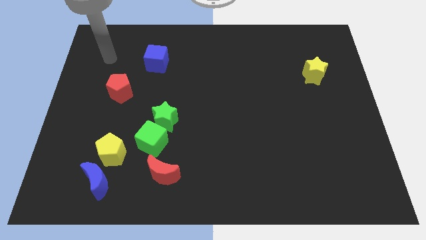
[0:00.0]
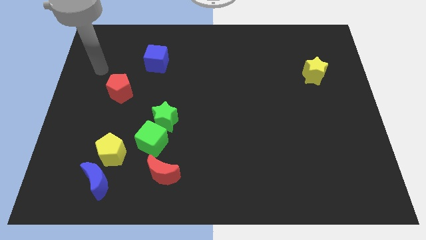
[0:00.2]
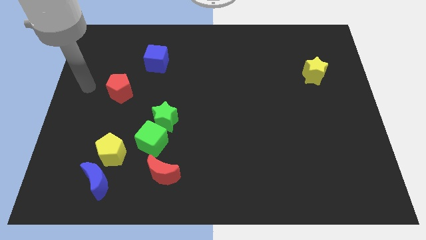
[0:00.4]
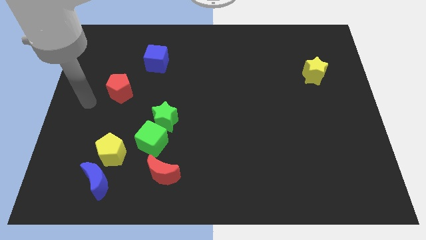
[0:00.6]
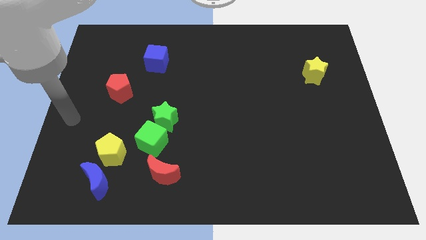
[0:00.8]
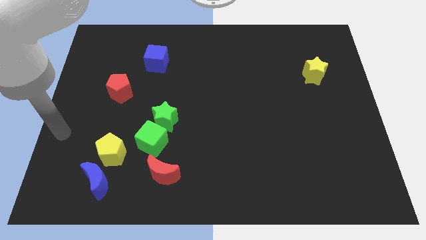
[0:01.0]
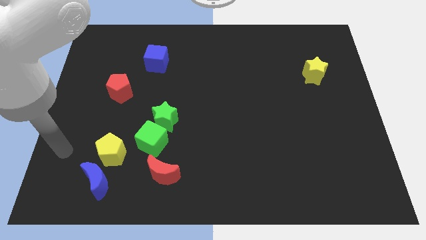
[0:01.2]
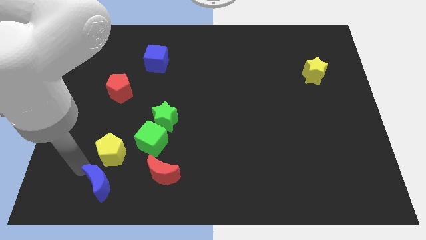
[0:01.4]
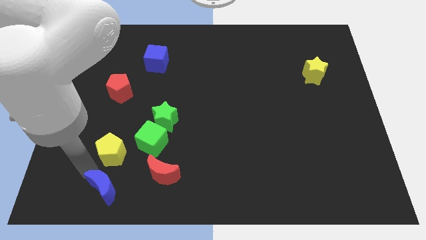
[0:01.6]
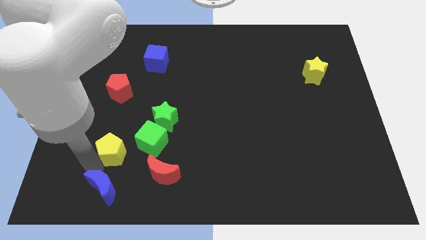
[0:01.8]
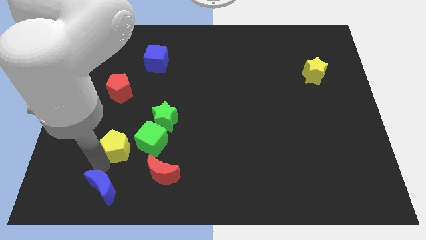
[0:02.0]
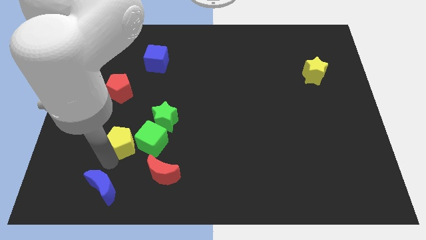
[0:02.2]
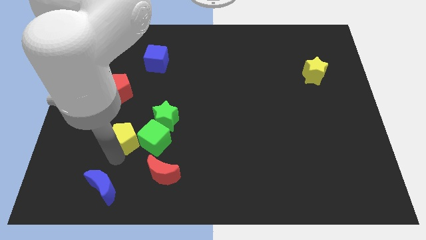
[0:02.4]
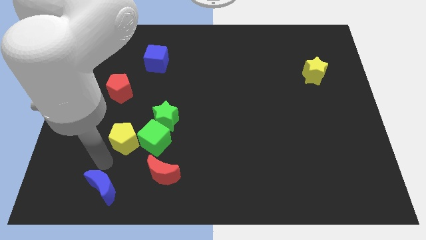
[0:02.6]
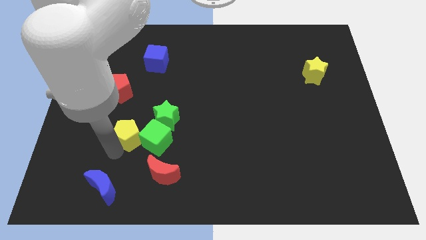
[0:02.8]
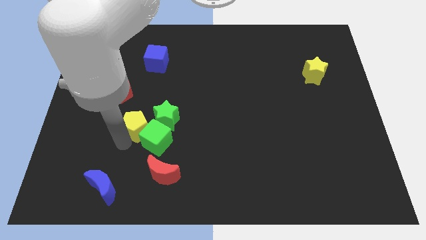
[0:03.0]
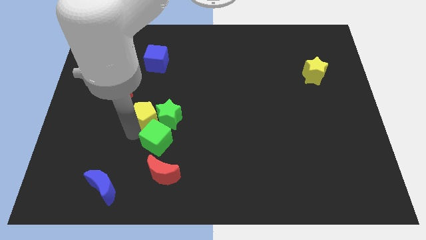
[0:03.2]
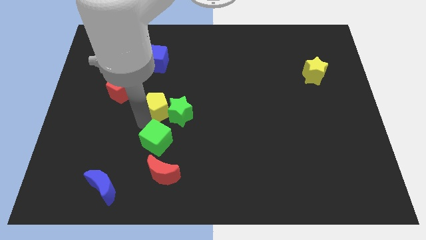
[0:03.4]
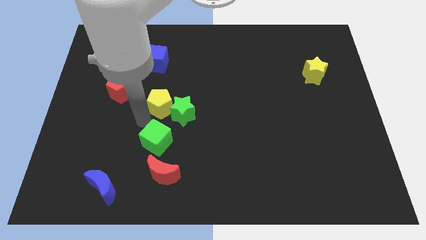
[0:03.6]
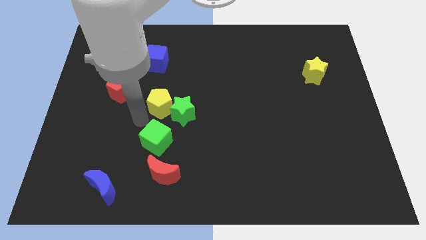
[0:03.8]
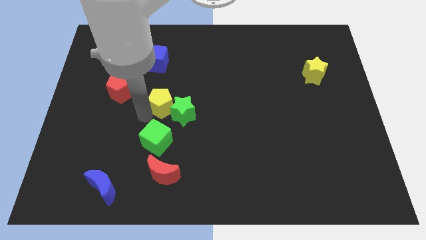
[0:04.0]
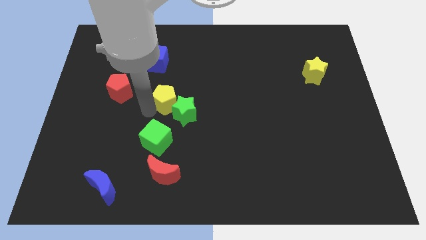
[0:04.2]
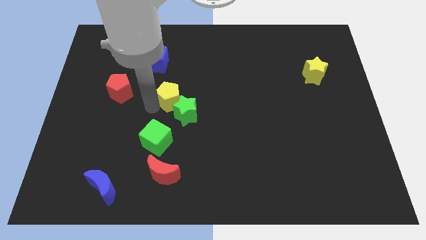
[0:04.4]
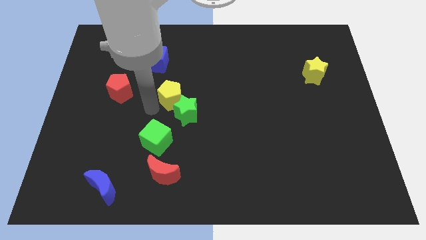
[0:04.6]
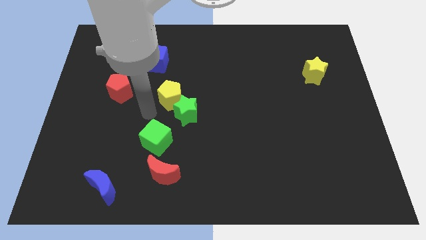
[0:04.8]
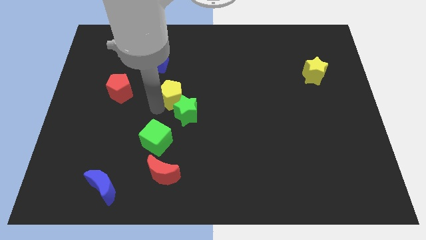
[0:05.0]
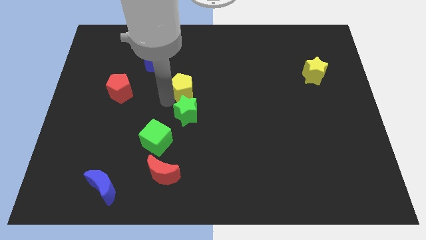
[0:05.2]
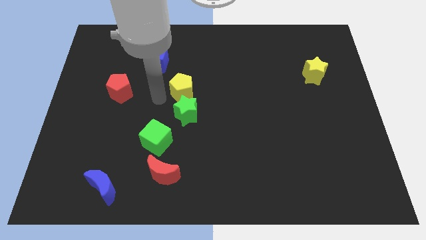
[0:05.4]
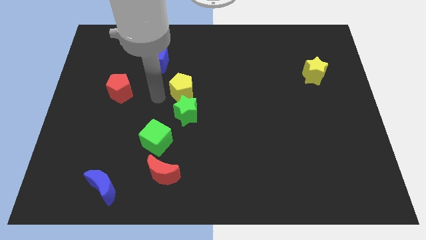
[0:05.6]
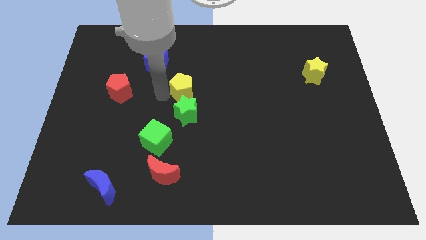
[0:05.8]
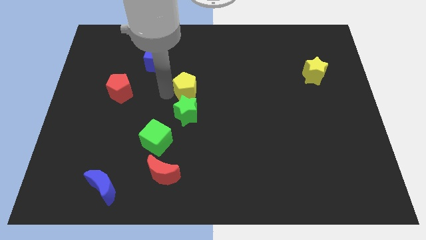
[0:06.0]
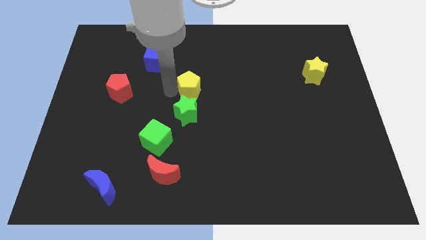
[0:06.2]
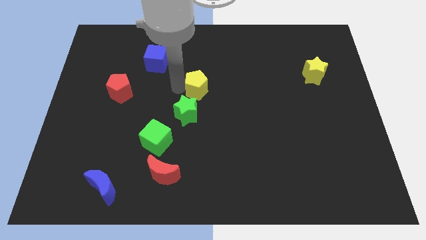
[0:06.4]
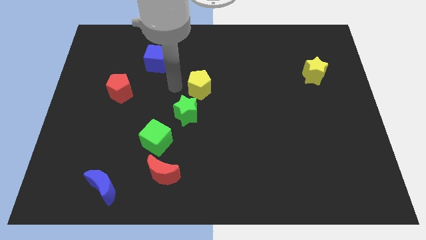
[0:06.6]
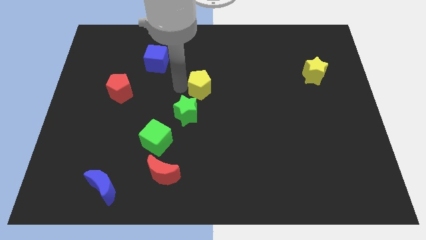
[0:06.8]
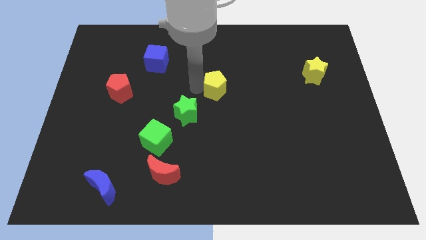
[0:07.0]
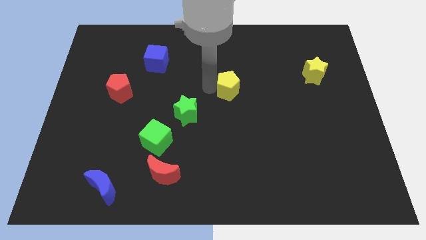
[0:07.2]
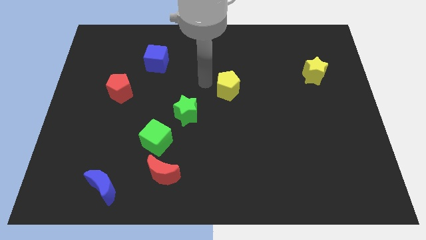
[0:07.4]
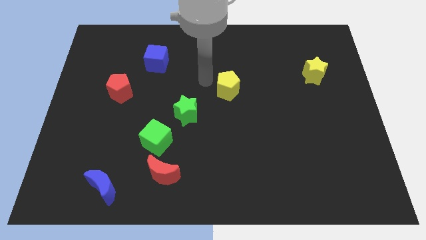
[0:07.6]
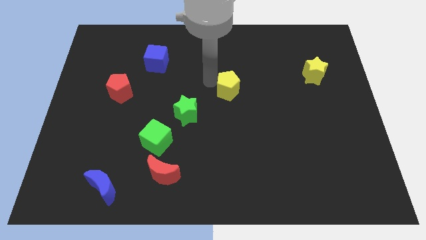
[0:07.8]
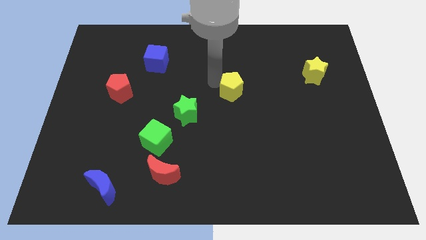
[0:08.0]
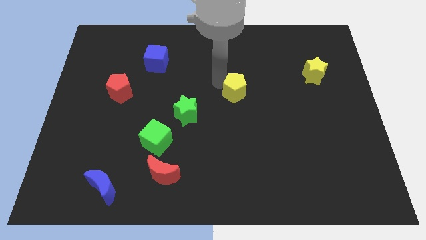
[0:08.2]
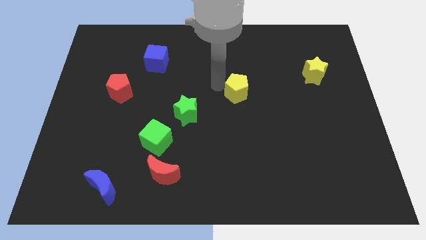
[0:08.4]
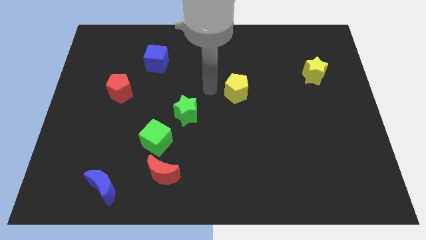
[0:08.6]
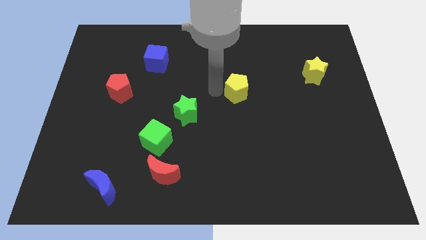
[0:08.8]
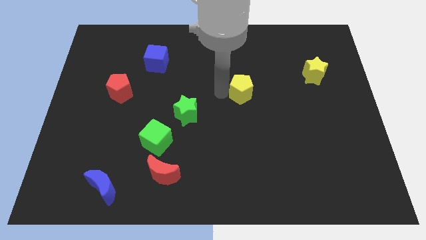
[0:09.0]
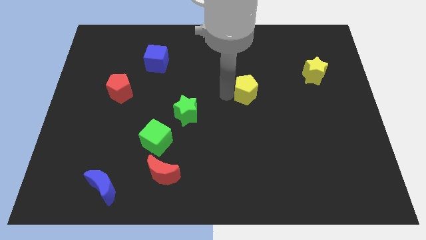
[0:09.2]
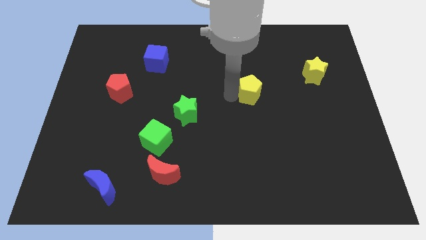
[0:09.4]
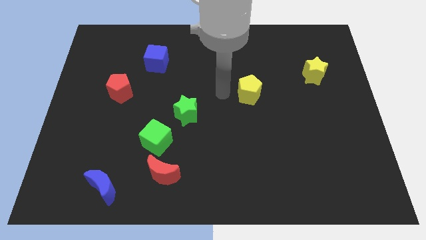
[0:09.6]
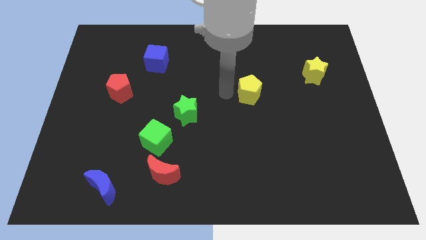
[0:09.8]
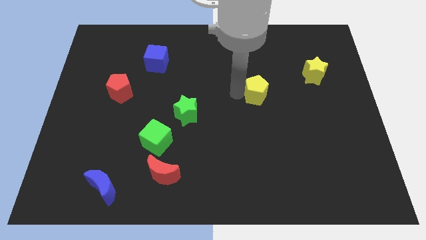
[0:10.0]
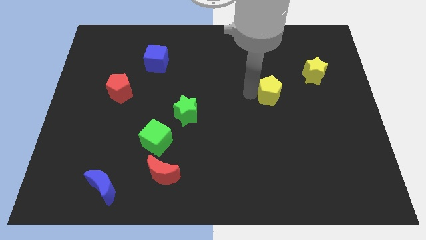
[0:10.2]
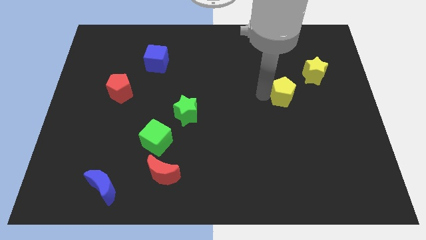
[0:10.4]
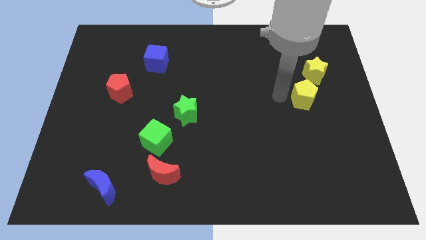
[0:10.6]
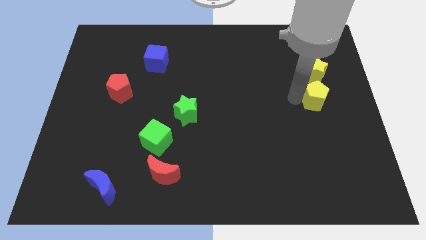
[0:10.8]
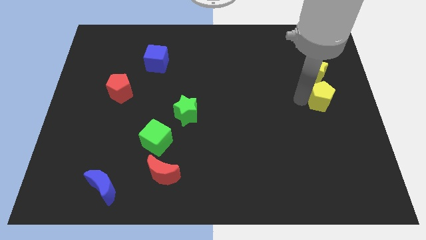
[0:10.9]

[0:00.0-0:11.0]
put the yellow pentagon to the right side of the board
